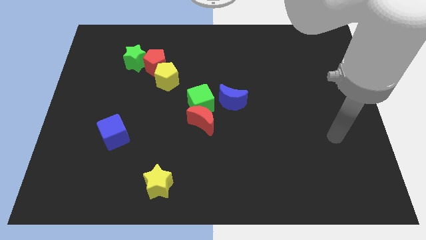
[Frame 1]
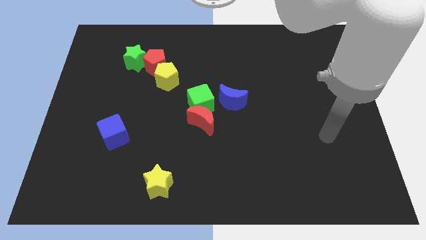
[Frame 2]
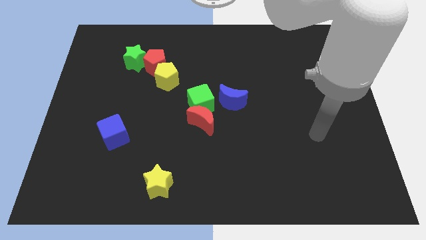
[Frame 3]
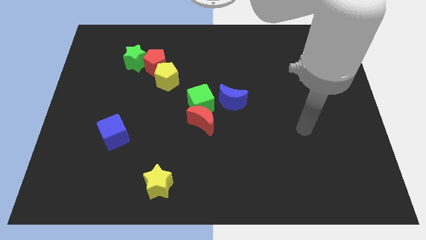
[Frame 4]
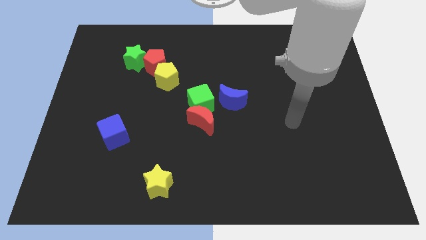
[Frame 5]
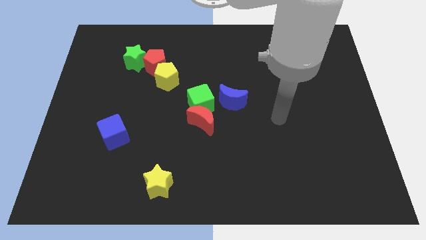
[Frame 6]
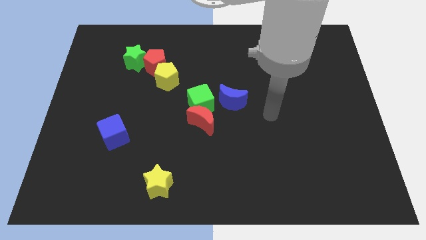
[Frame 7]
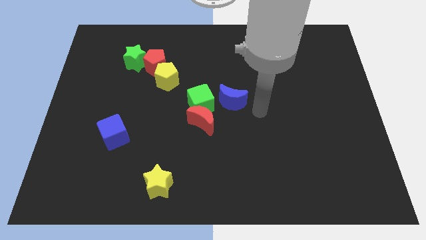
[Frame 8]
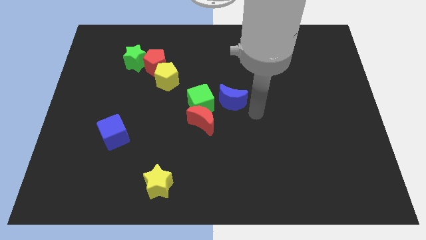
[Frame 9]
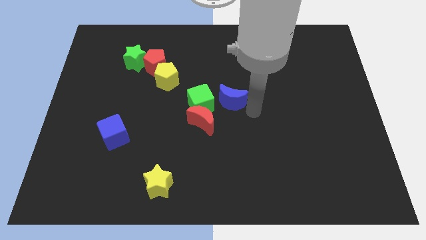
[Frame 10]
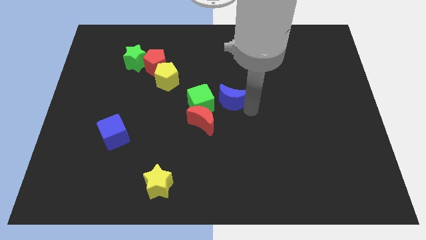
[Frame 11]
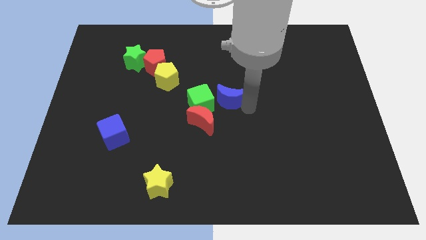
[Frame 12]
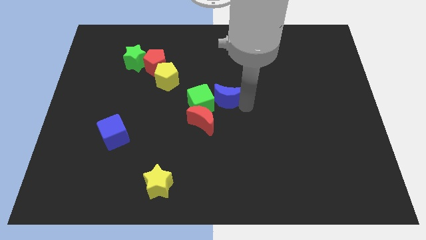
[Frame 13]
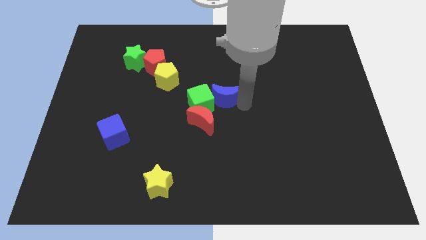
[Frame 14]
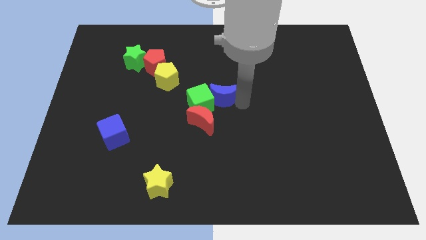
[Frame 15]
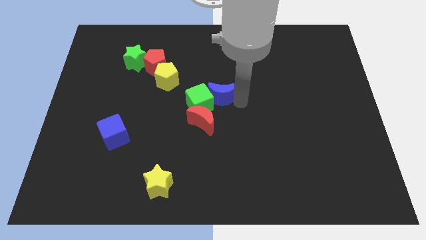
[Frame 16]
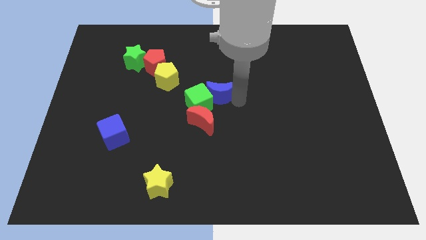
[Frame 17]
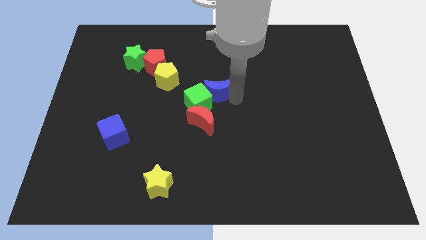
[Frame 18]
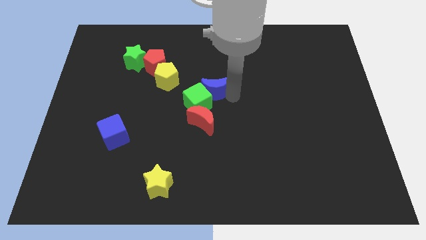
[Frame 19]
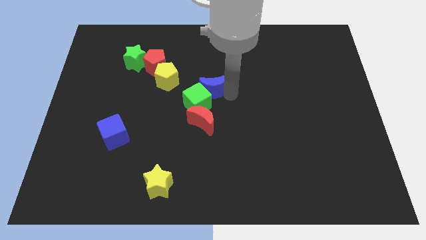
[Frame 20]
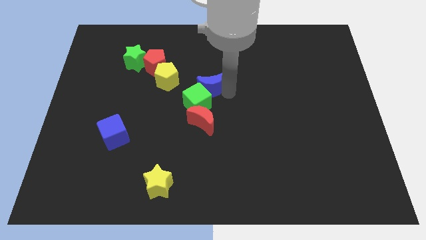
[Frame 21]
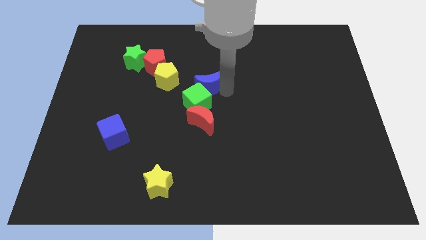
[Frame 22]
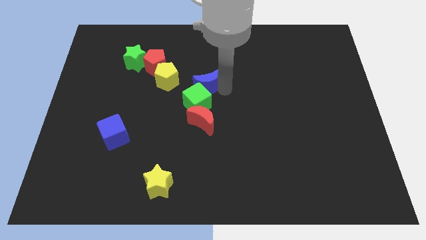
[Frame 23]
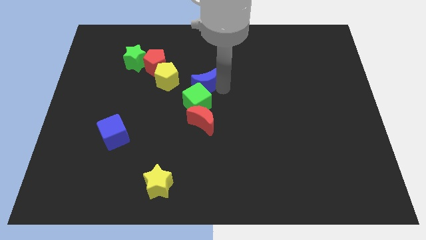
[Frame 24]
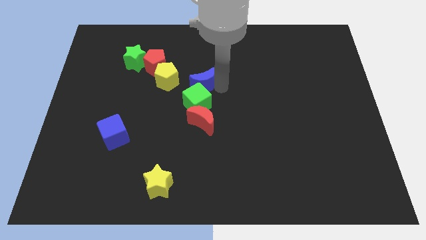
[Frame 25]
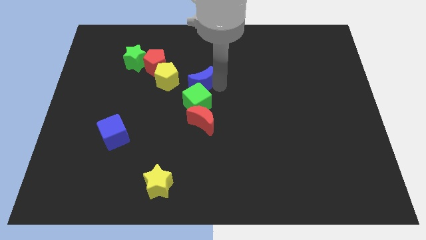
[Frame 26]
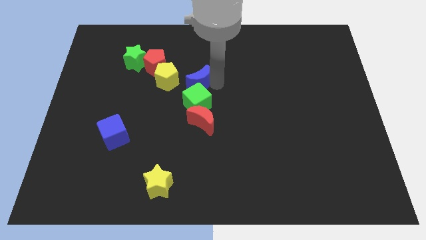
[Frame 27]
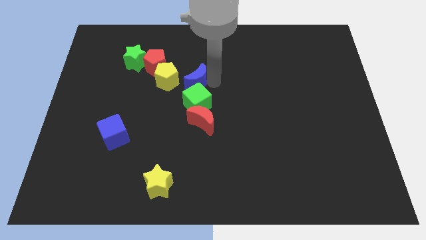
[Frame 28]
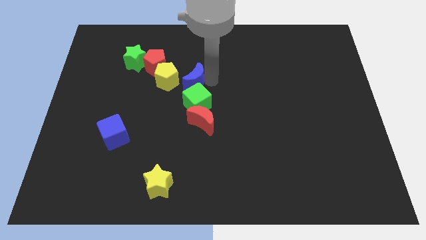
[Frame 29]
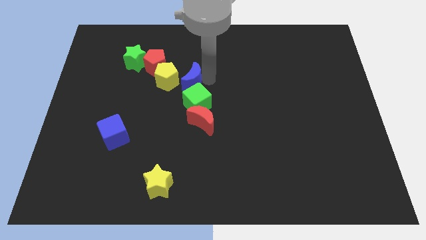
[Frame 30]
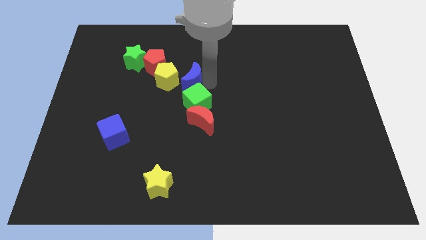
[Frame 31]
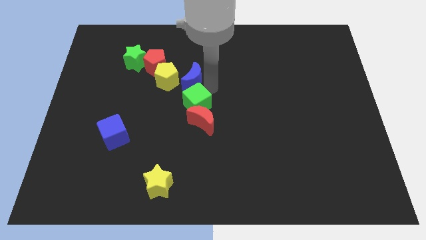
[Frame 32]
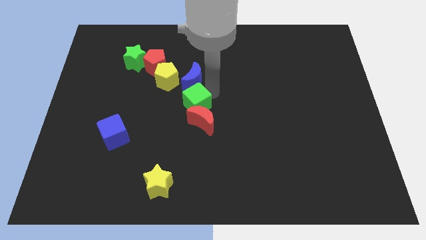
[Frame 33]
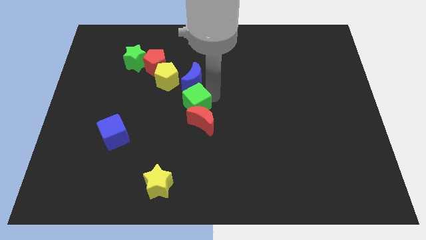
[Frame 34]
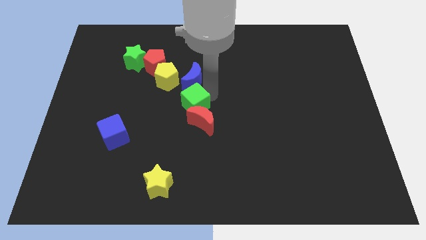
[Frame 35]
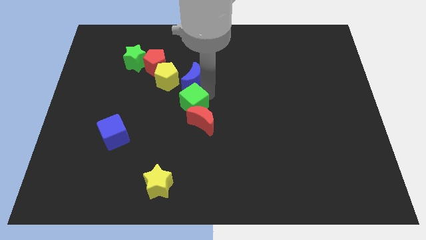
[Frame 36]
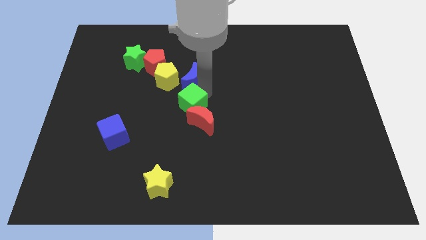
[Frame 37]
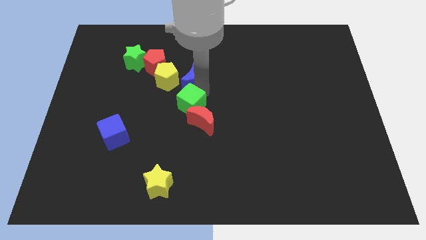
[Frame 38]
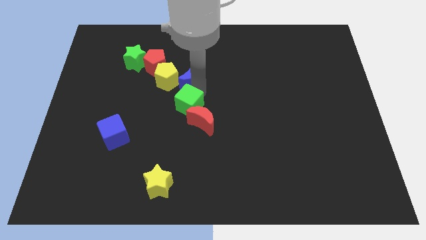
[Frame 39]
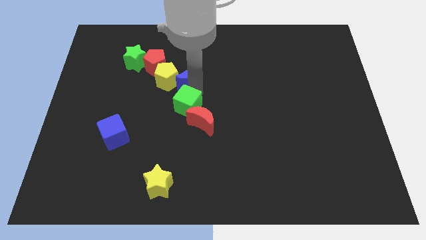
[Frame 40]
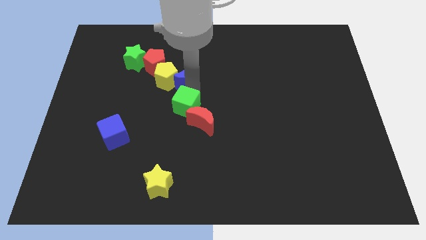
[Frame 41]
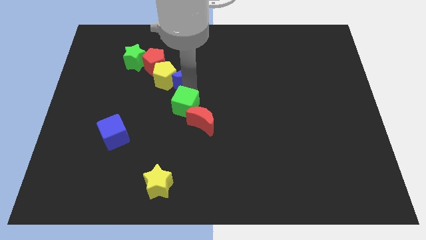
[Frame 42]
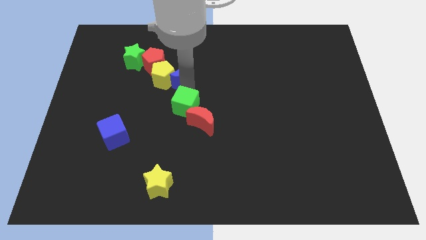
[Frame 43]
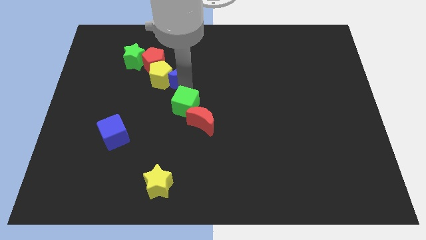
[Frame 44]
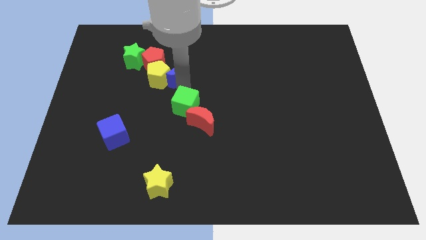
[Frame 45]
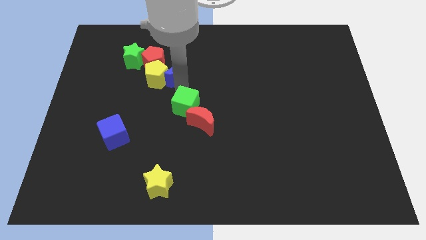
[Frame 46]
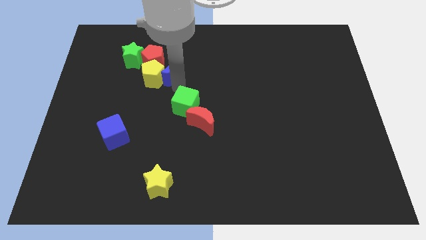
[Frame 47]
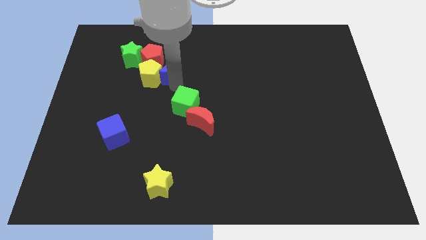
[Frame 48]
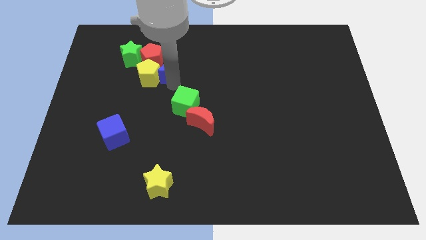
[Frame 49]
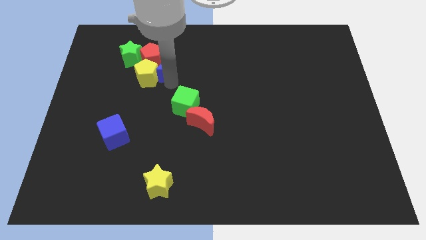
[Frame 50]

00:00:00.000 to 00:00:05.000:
move the blue moon close to the red pentagon

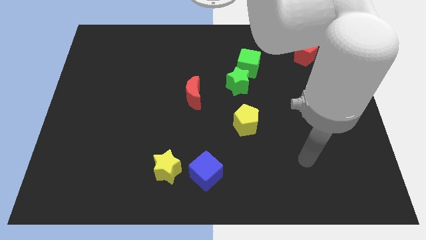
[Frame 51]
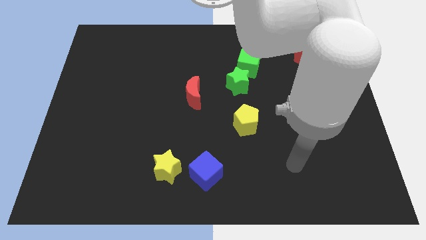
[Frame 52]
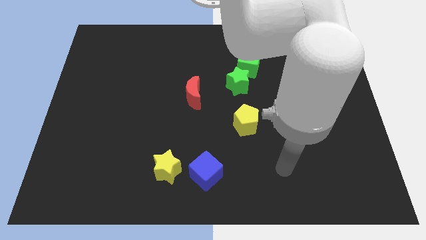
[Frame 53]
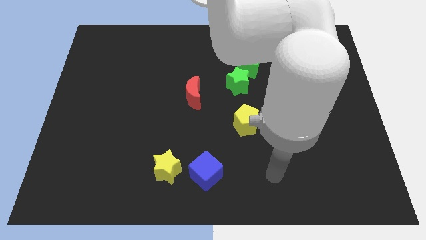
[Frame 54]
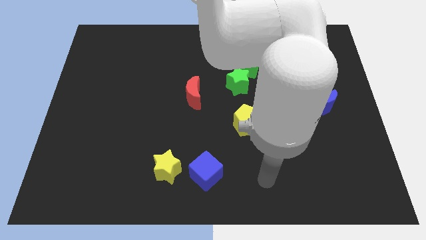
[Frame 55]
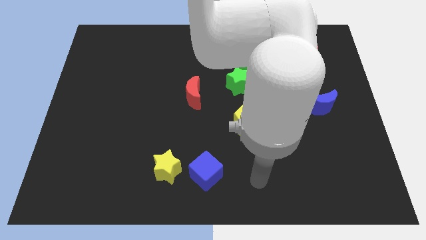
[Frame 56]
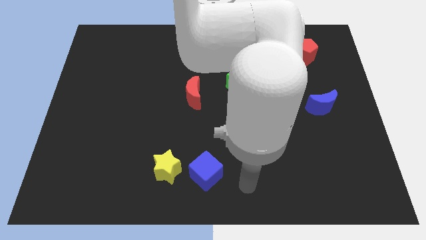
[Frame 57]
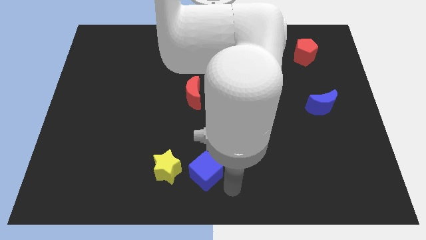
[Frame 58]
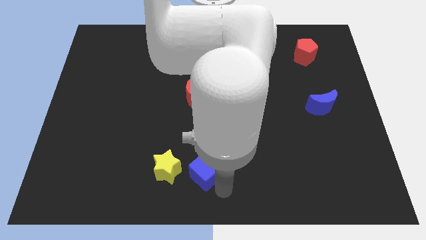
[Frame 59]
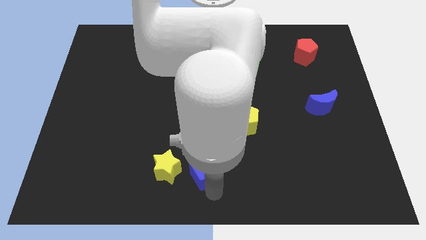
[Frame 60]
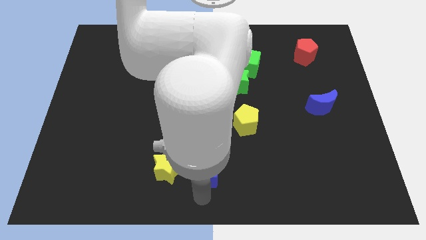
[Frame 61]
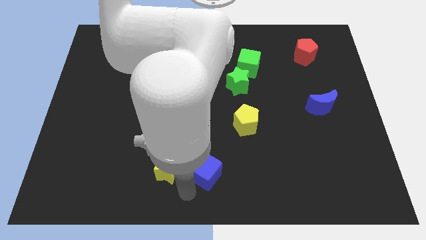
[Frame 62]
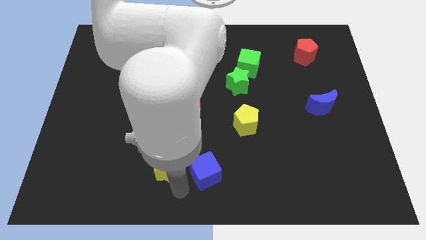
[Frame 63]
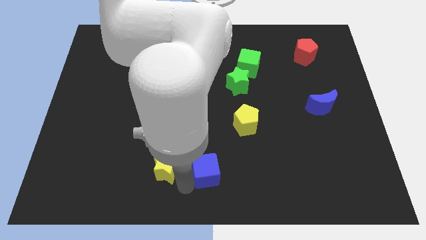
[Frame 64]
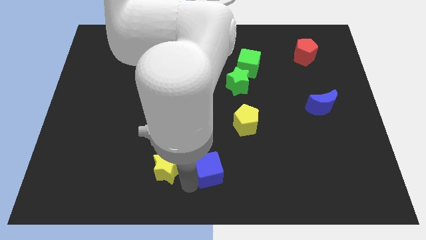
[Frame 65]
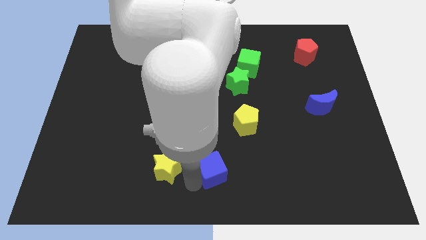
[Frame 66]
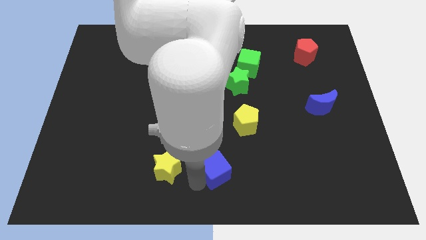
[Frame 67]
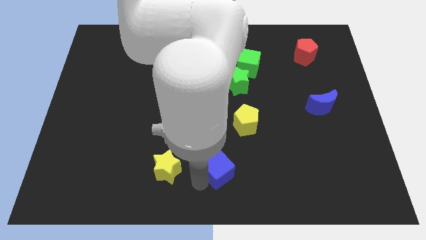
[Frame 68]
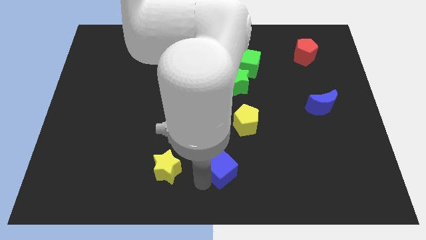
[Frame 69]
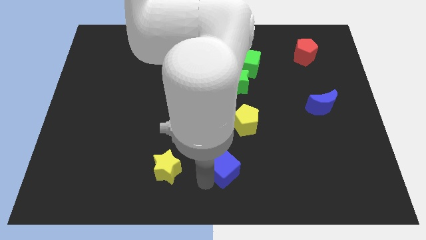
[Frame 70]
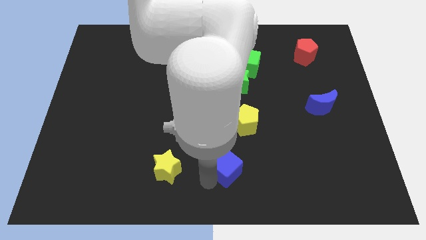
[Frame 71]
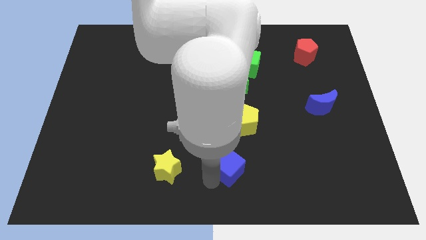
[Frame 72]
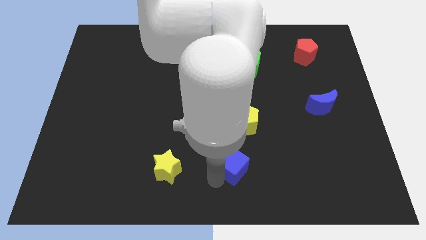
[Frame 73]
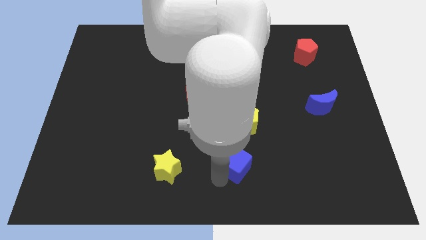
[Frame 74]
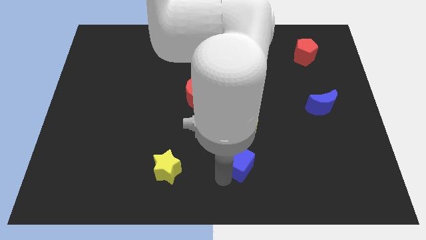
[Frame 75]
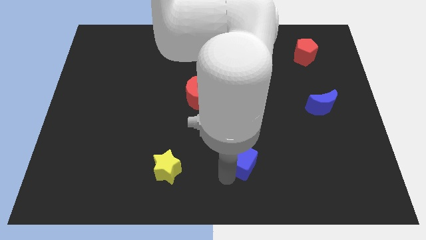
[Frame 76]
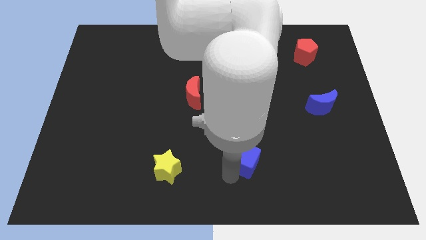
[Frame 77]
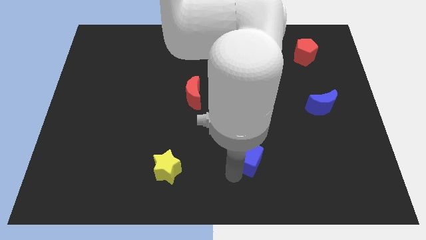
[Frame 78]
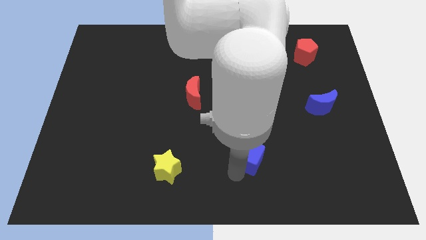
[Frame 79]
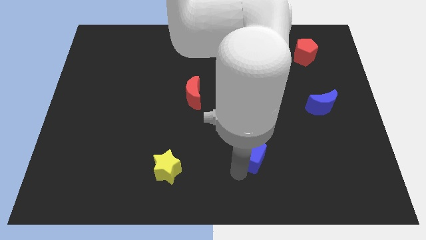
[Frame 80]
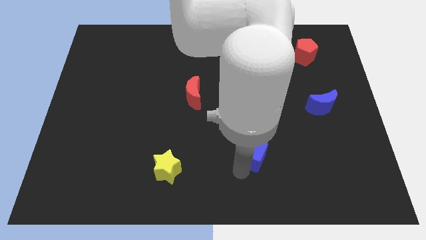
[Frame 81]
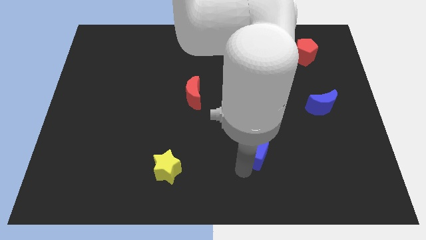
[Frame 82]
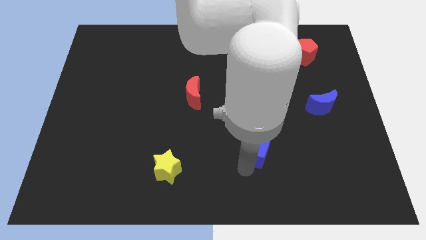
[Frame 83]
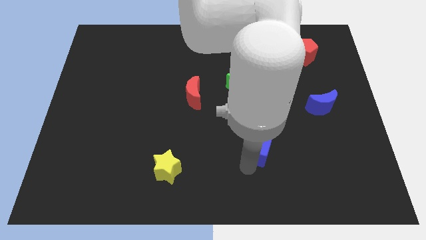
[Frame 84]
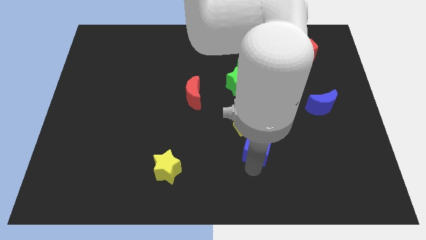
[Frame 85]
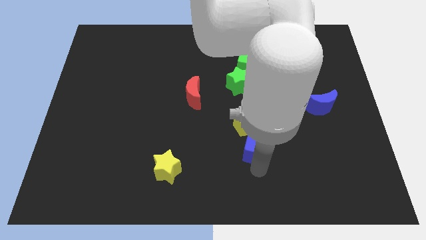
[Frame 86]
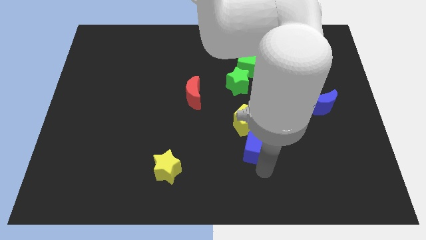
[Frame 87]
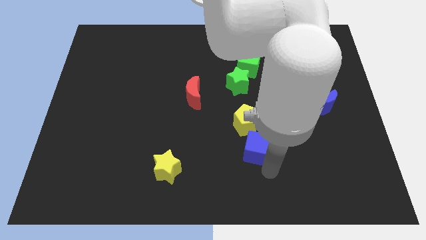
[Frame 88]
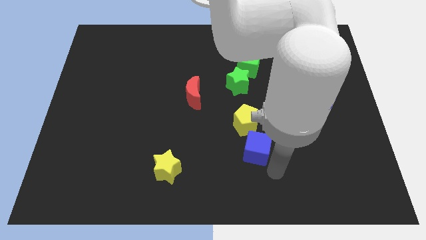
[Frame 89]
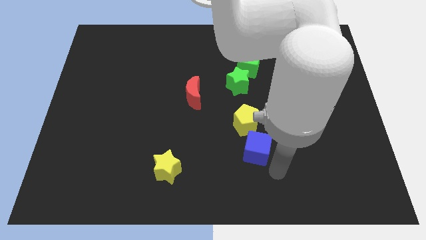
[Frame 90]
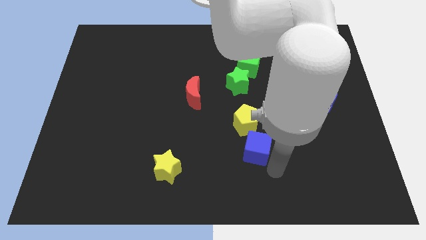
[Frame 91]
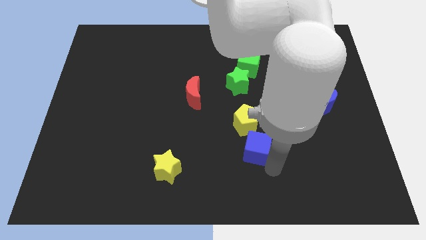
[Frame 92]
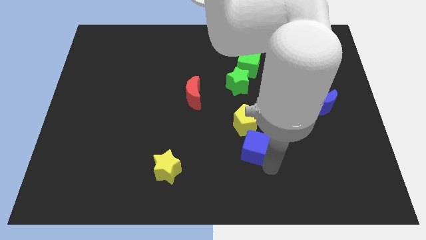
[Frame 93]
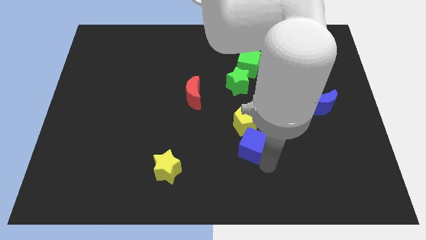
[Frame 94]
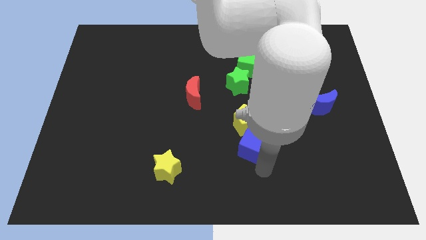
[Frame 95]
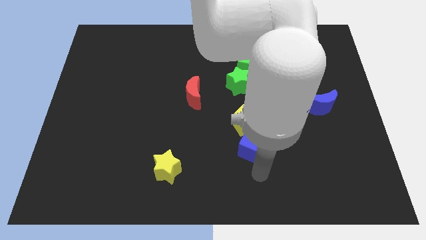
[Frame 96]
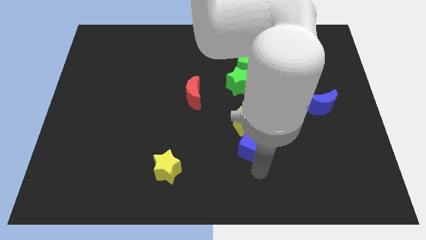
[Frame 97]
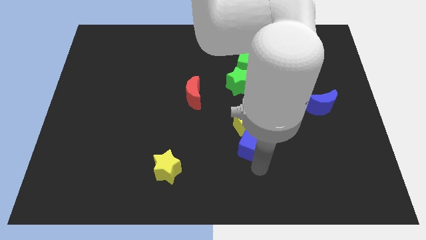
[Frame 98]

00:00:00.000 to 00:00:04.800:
put the blue cube close to the yellow pentagon
